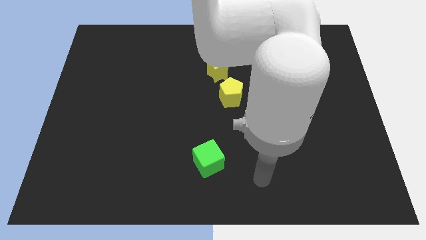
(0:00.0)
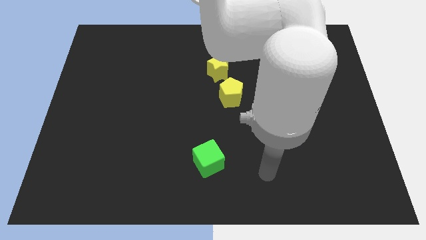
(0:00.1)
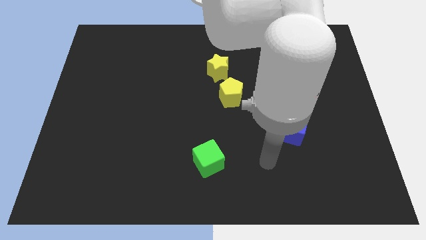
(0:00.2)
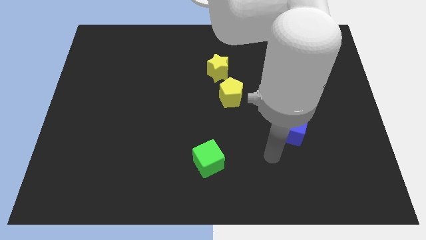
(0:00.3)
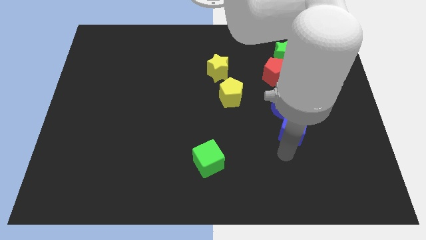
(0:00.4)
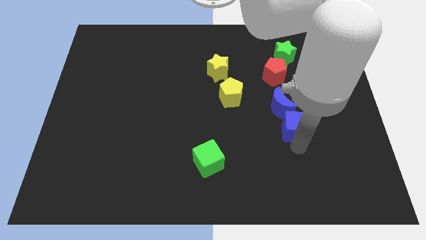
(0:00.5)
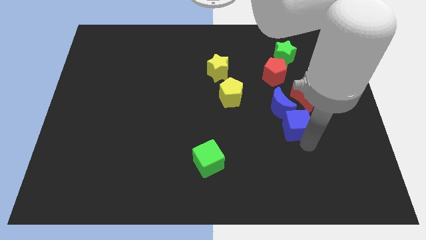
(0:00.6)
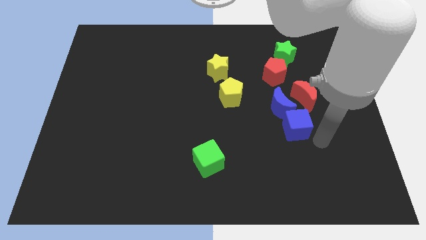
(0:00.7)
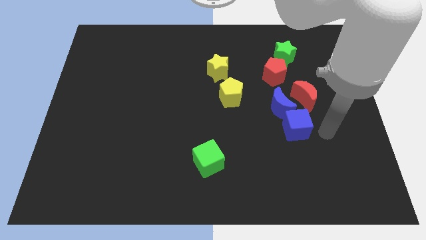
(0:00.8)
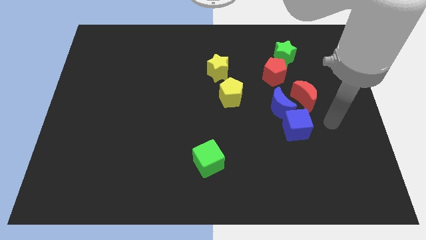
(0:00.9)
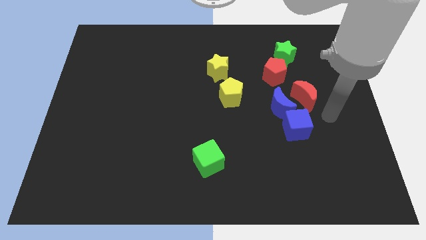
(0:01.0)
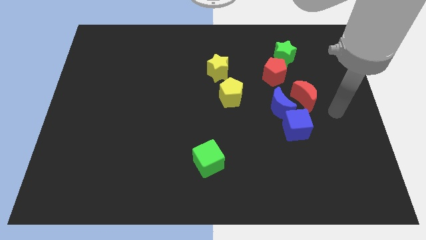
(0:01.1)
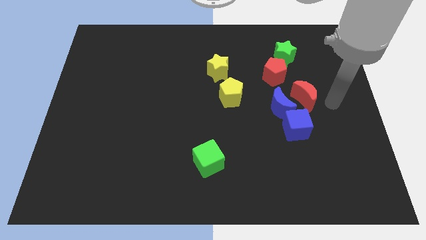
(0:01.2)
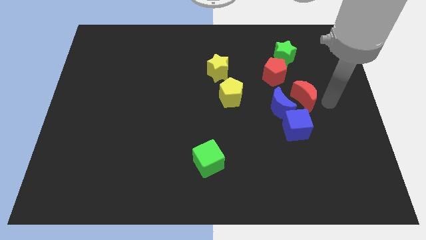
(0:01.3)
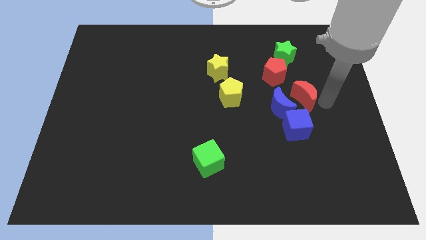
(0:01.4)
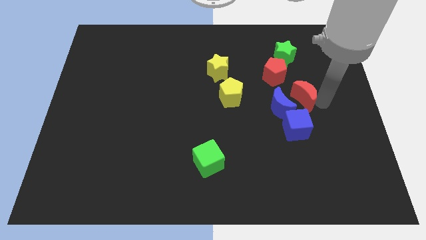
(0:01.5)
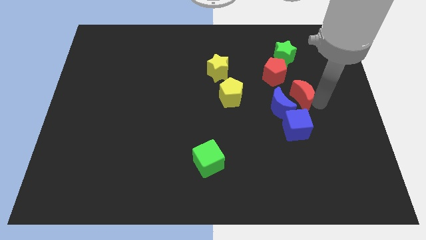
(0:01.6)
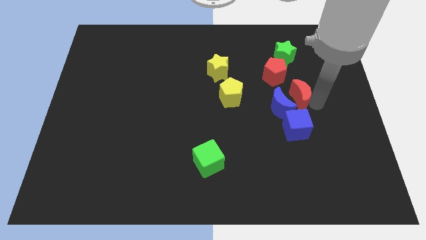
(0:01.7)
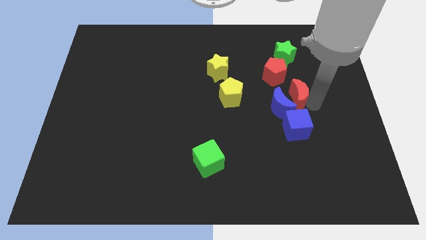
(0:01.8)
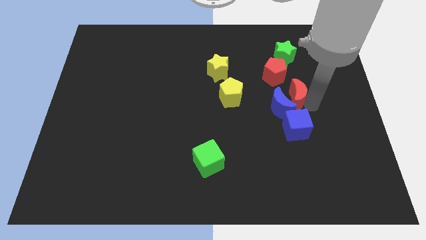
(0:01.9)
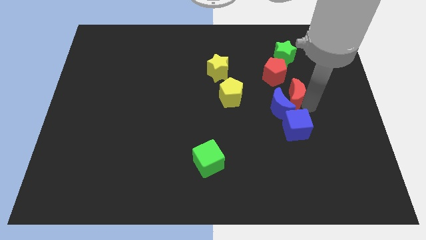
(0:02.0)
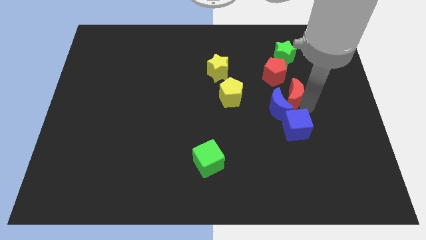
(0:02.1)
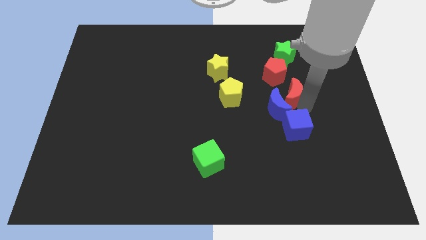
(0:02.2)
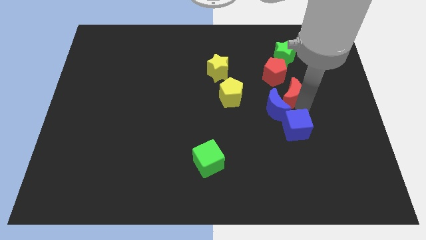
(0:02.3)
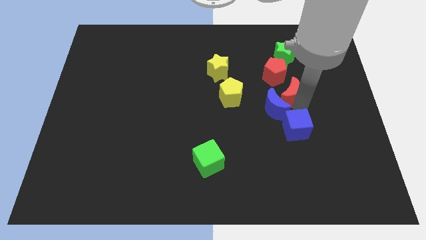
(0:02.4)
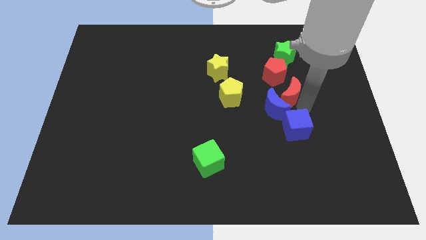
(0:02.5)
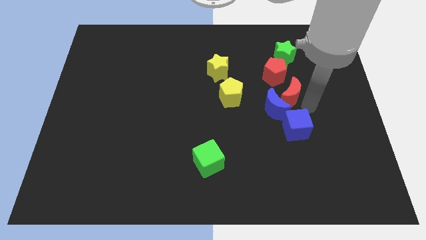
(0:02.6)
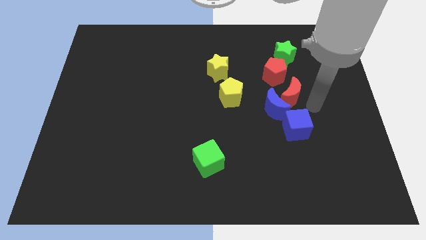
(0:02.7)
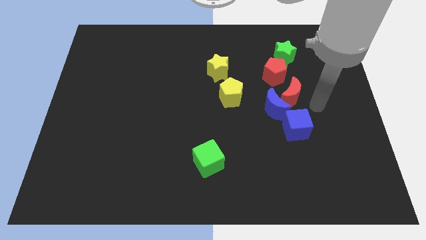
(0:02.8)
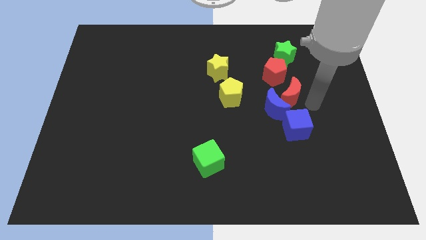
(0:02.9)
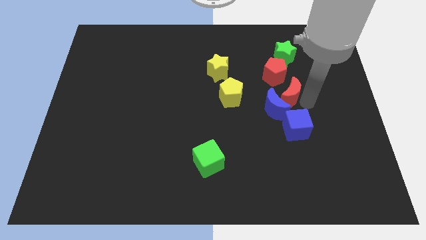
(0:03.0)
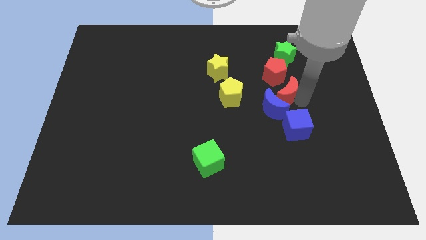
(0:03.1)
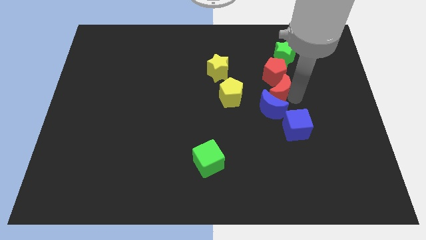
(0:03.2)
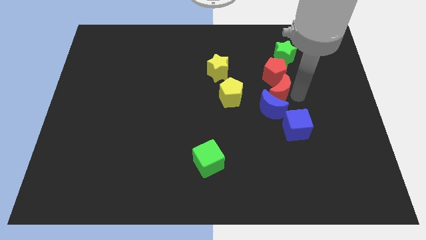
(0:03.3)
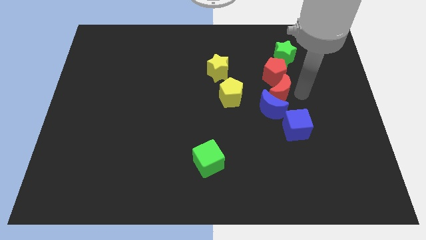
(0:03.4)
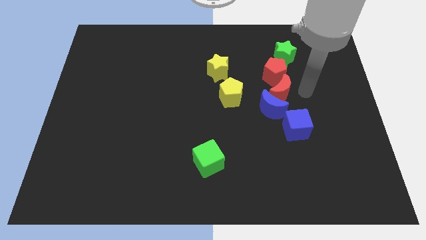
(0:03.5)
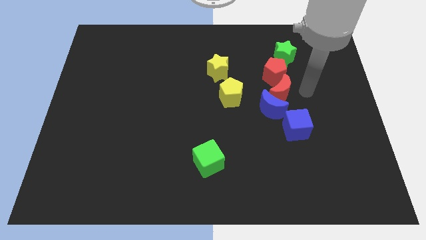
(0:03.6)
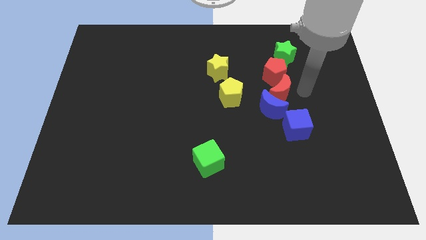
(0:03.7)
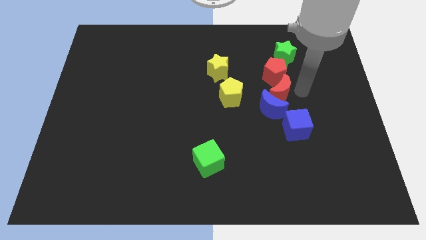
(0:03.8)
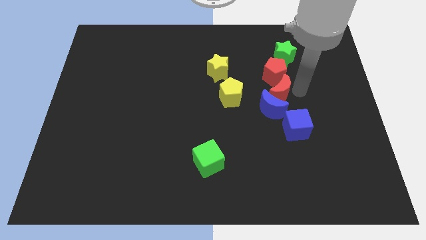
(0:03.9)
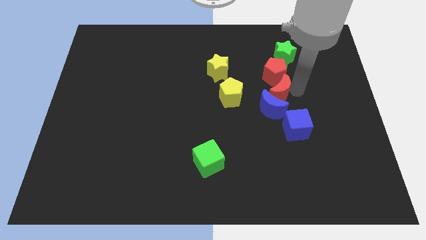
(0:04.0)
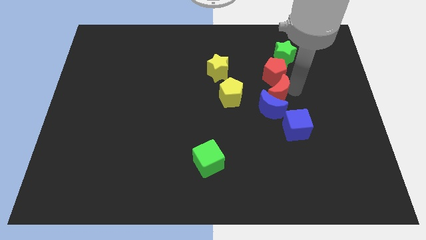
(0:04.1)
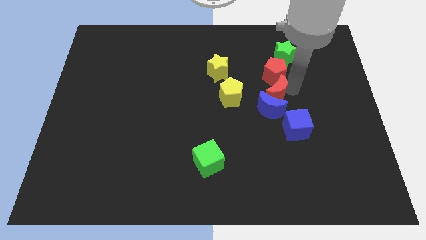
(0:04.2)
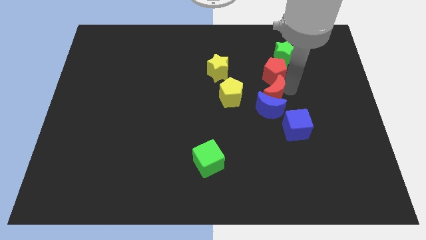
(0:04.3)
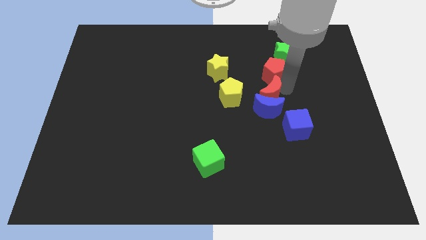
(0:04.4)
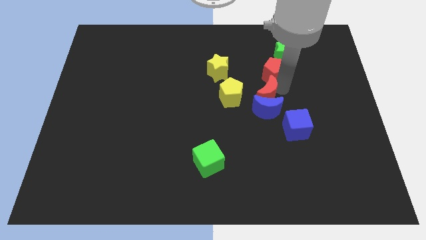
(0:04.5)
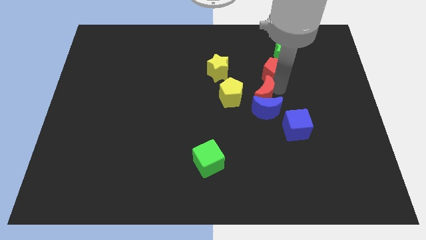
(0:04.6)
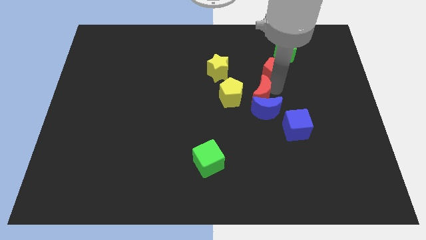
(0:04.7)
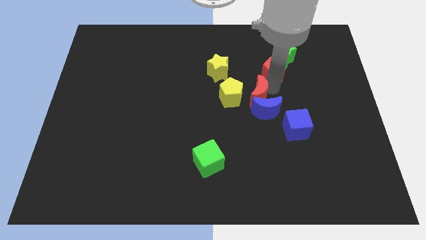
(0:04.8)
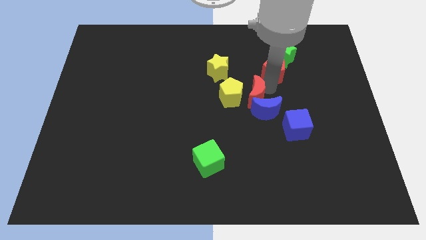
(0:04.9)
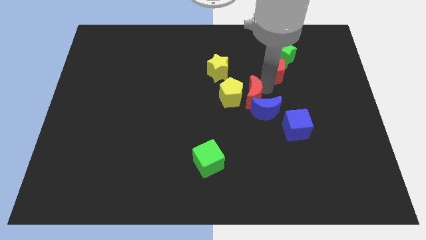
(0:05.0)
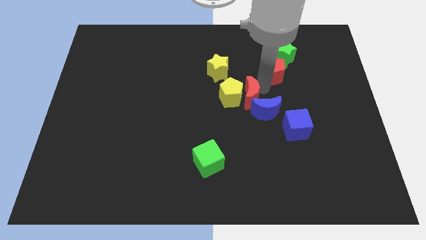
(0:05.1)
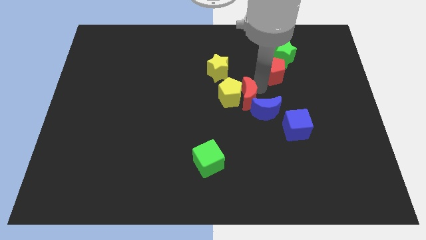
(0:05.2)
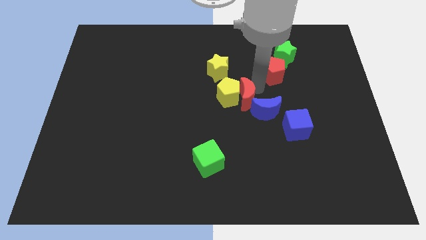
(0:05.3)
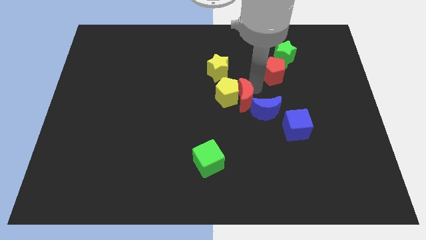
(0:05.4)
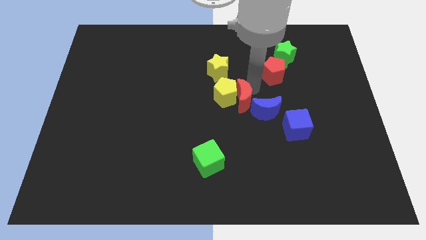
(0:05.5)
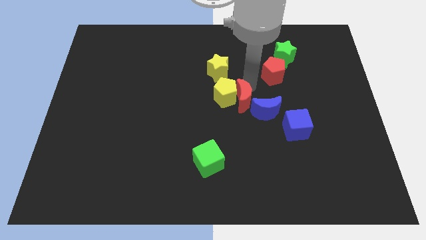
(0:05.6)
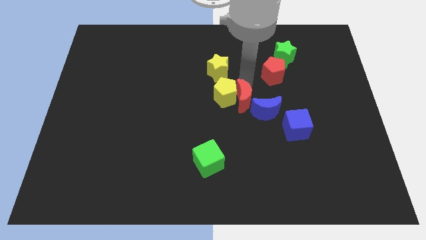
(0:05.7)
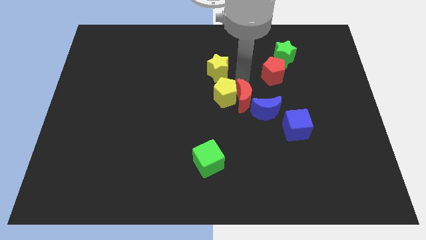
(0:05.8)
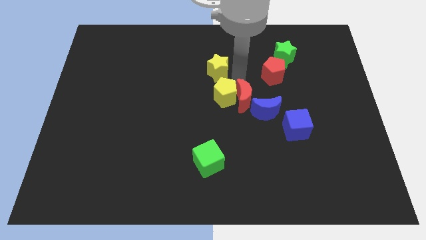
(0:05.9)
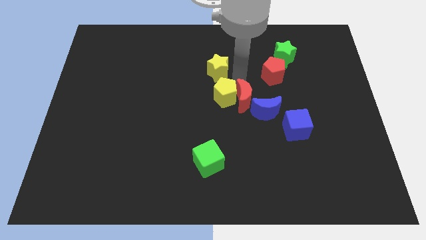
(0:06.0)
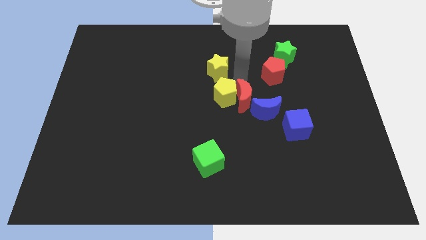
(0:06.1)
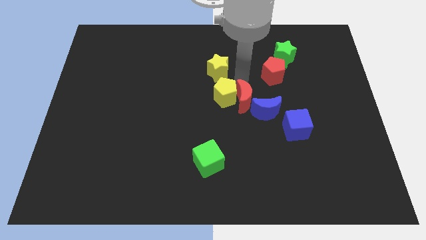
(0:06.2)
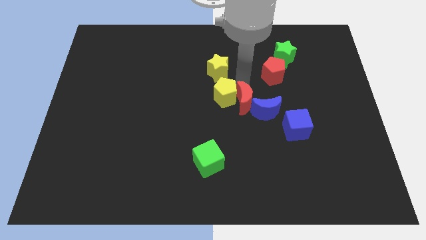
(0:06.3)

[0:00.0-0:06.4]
slide the red moon slightly diagonally down and to the left

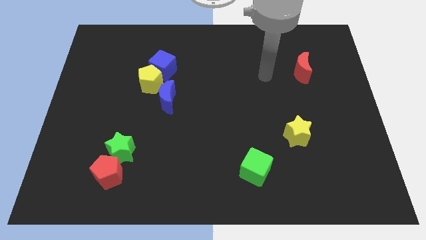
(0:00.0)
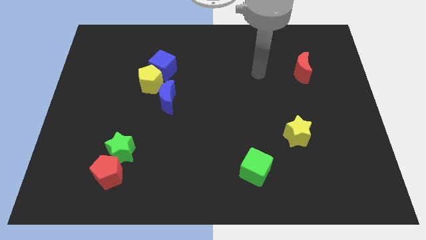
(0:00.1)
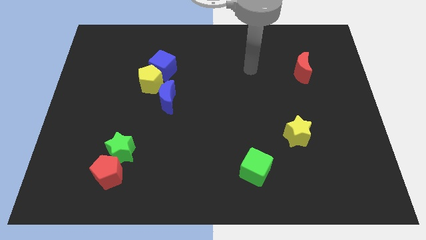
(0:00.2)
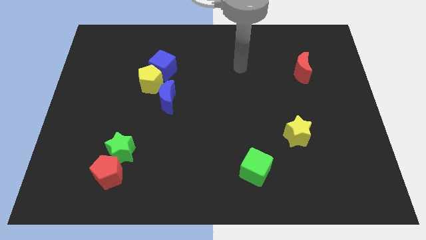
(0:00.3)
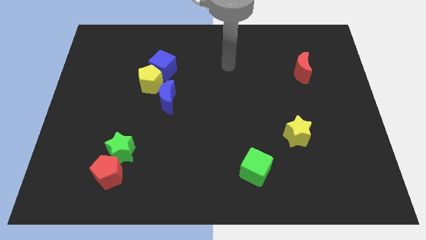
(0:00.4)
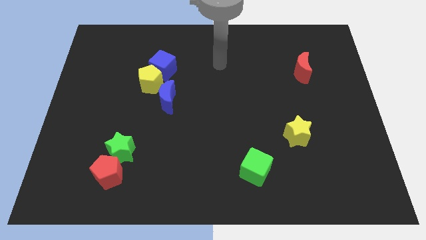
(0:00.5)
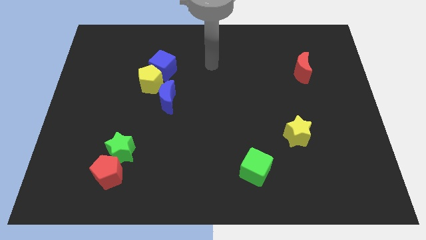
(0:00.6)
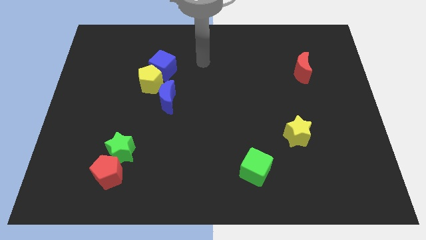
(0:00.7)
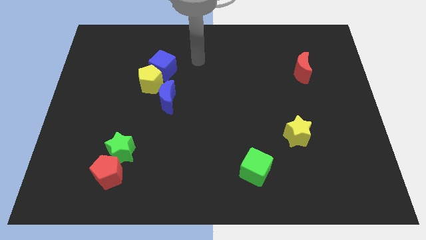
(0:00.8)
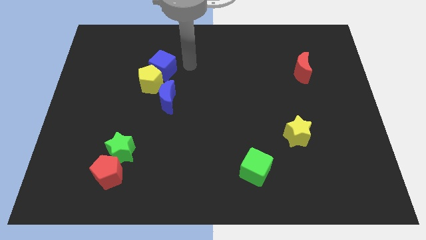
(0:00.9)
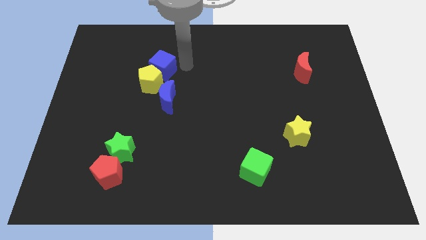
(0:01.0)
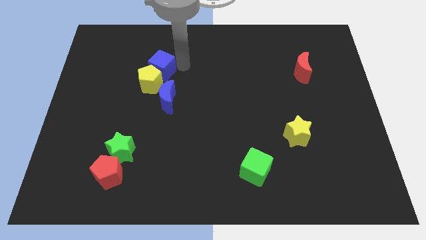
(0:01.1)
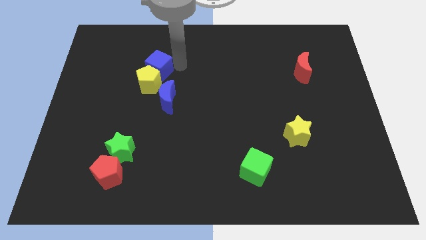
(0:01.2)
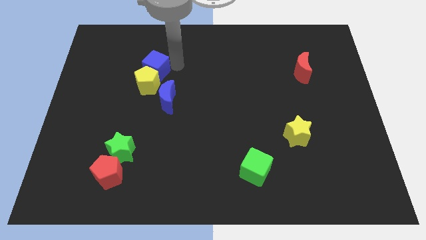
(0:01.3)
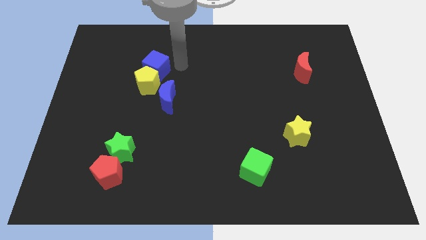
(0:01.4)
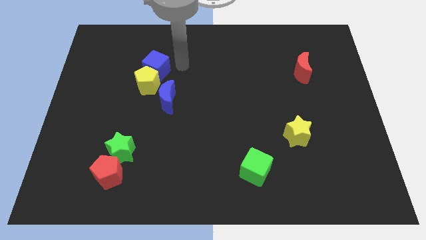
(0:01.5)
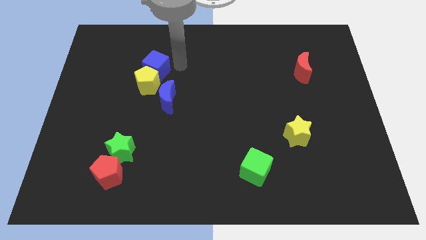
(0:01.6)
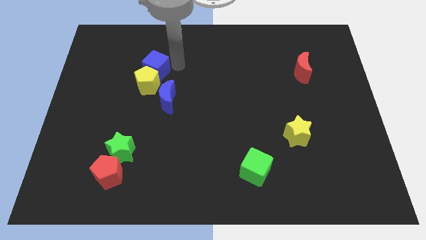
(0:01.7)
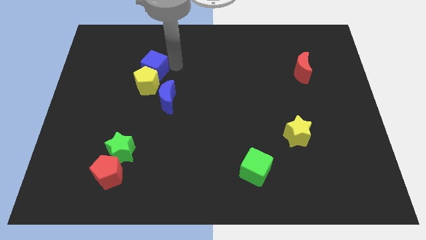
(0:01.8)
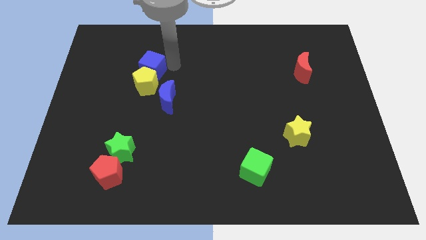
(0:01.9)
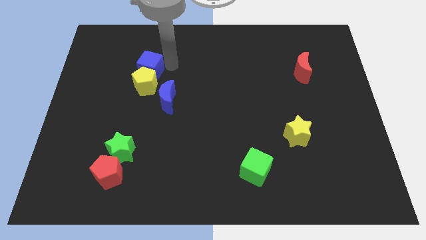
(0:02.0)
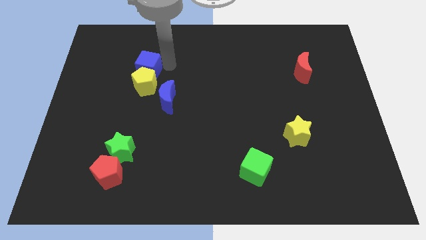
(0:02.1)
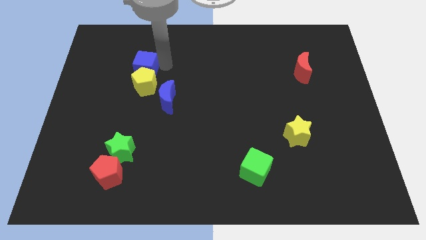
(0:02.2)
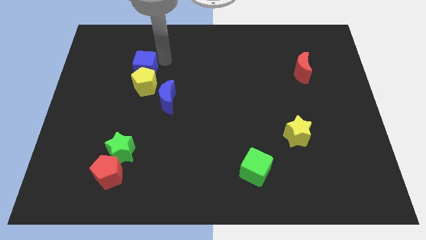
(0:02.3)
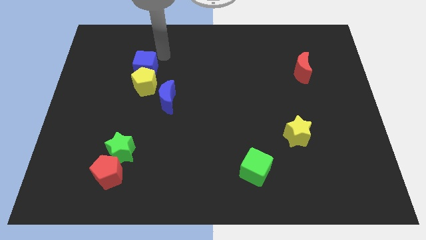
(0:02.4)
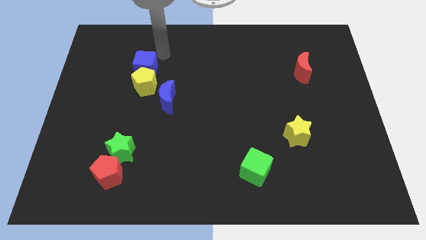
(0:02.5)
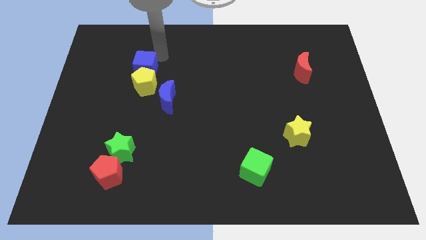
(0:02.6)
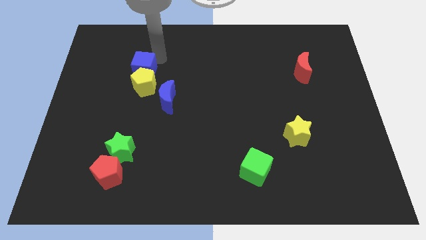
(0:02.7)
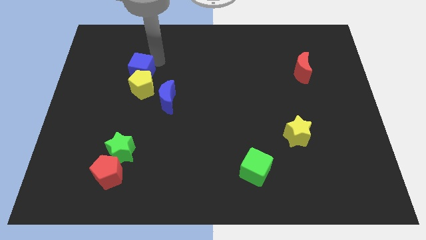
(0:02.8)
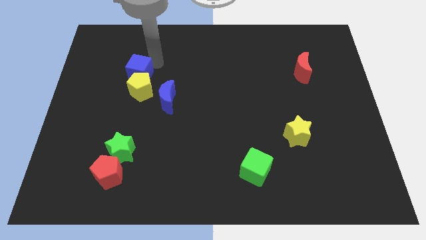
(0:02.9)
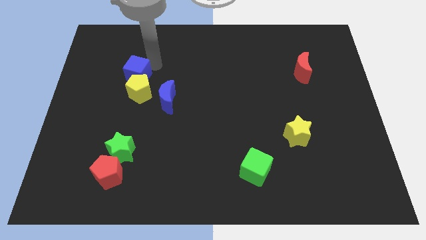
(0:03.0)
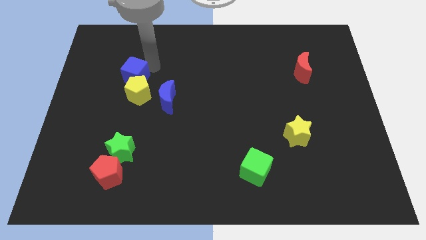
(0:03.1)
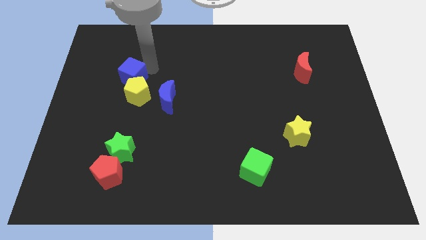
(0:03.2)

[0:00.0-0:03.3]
move the blue cube diagonally down and to the left a bit
